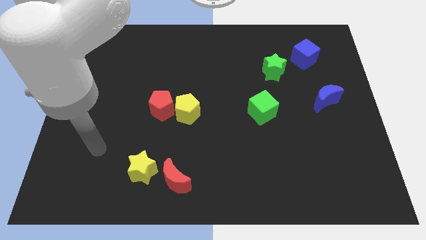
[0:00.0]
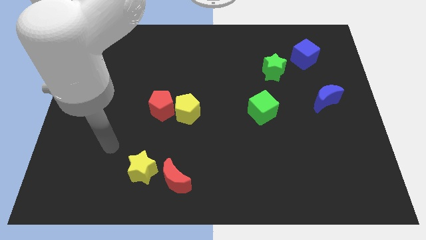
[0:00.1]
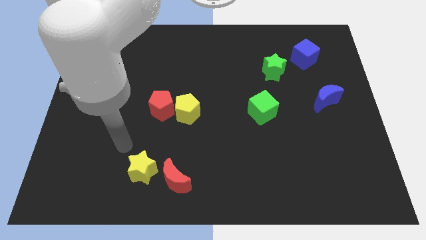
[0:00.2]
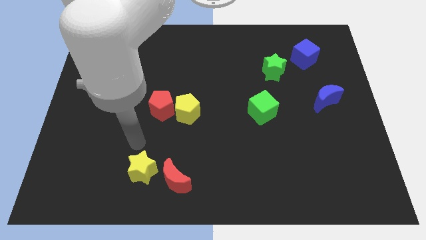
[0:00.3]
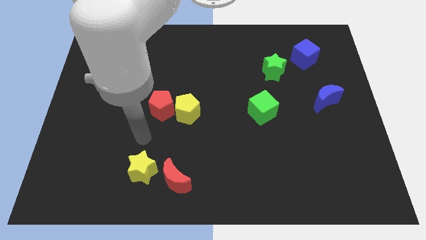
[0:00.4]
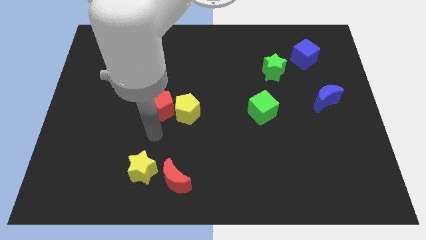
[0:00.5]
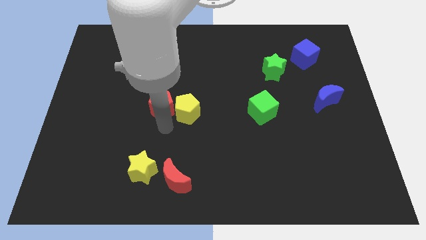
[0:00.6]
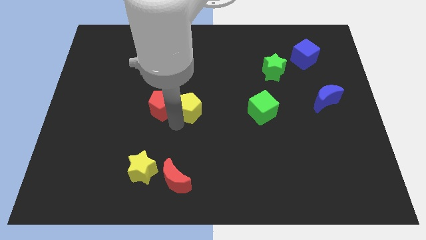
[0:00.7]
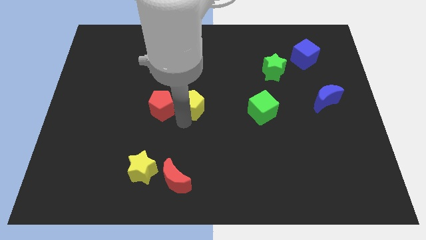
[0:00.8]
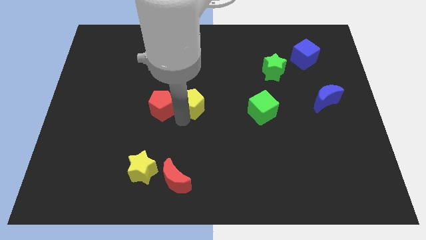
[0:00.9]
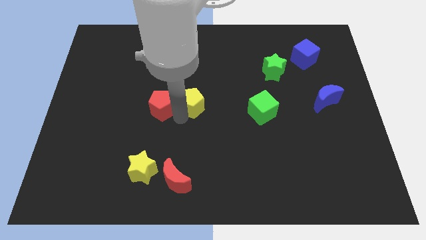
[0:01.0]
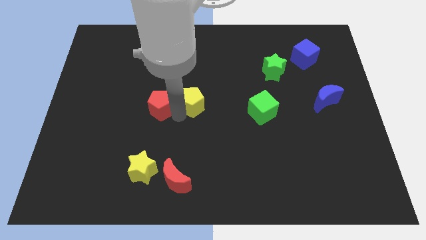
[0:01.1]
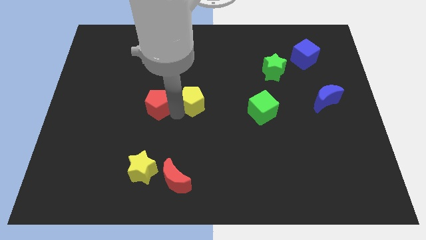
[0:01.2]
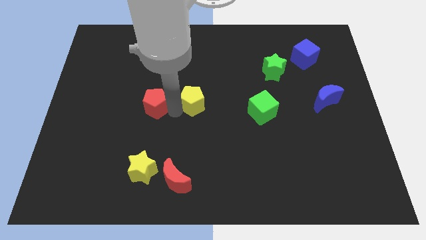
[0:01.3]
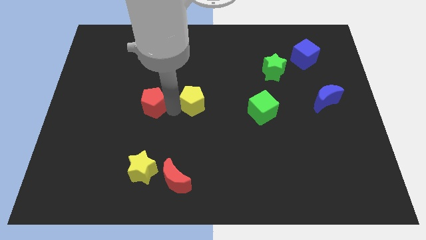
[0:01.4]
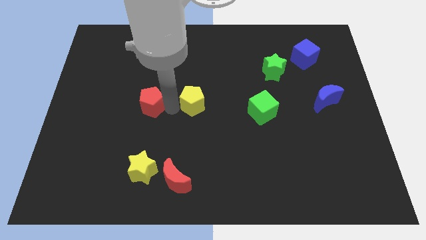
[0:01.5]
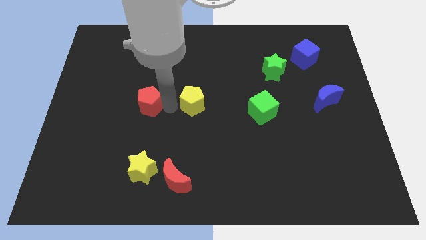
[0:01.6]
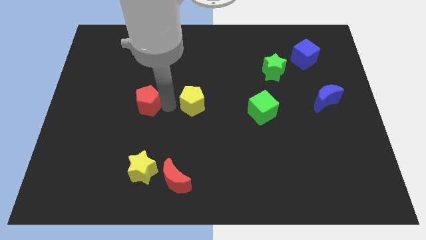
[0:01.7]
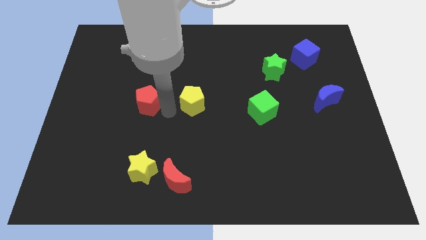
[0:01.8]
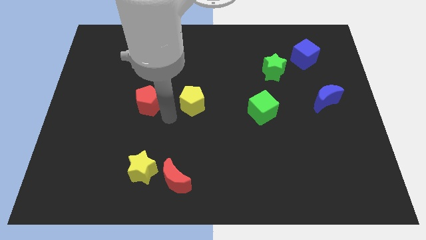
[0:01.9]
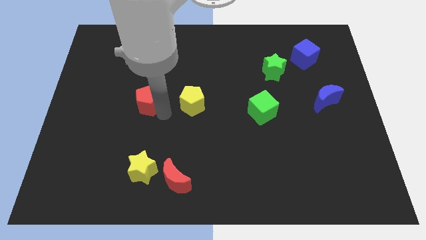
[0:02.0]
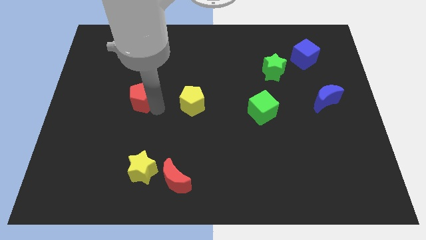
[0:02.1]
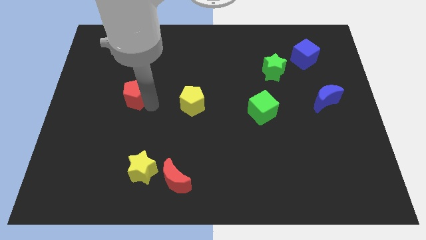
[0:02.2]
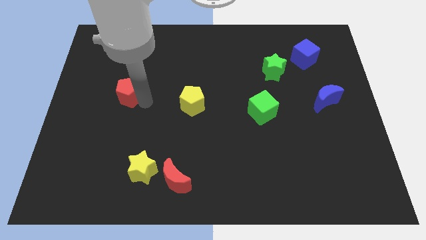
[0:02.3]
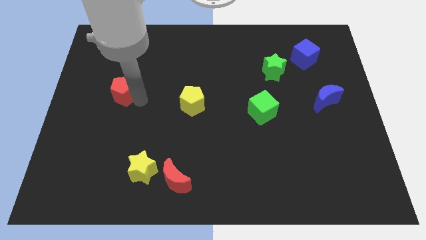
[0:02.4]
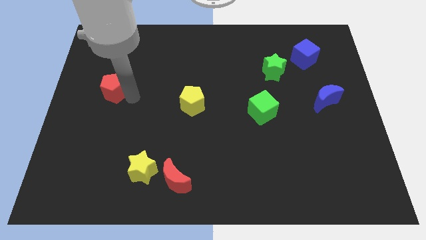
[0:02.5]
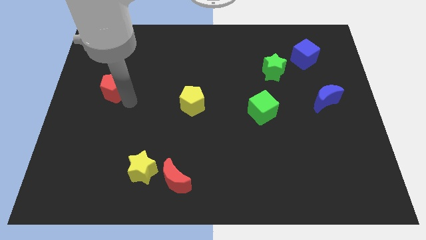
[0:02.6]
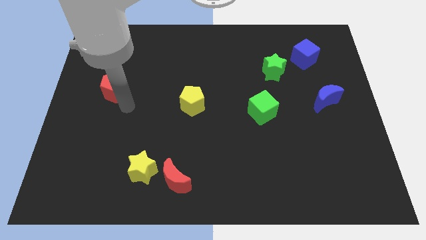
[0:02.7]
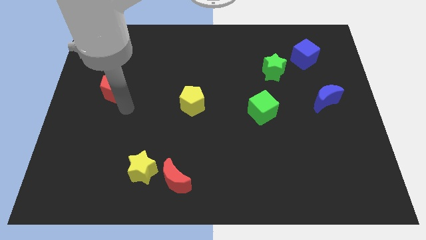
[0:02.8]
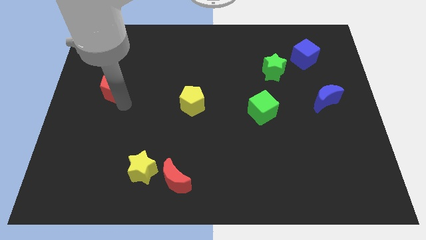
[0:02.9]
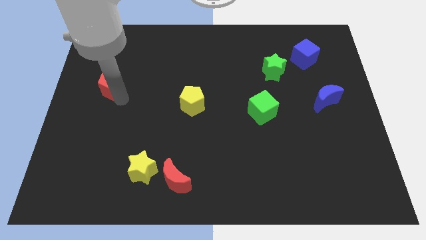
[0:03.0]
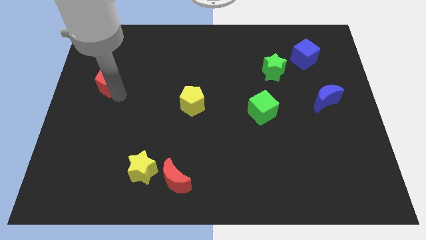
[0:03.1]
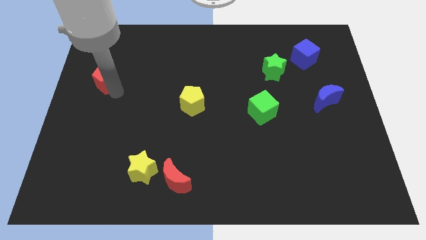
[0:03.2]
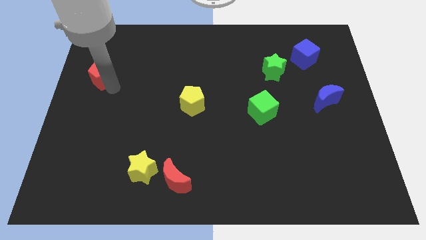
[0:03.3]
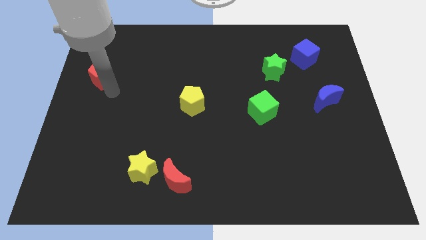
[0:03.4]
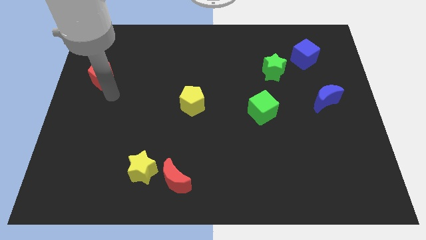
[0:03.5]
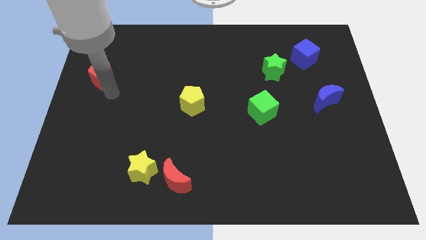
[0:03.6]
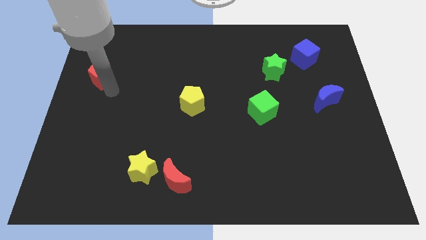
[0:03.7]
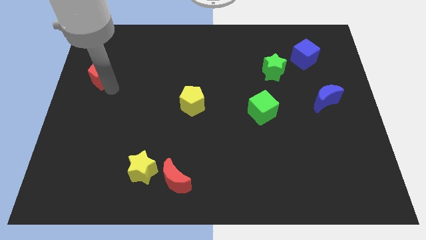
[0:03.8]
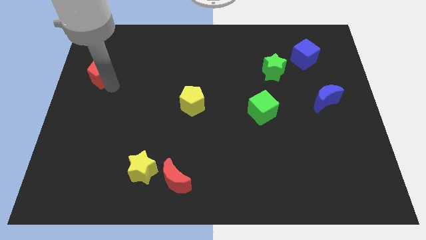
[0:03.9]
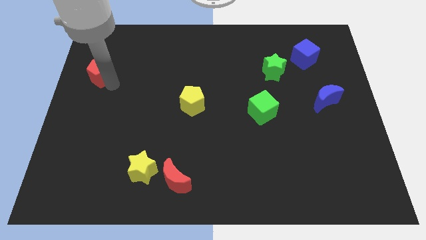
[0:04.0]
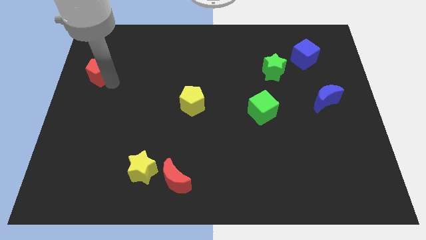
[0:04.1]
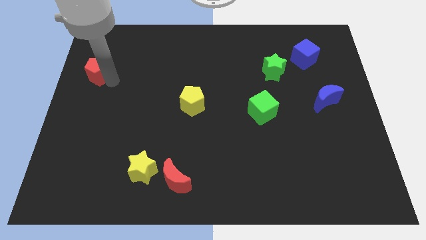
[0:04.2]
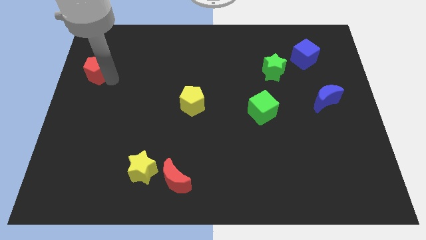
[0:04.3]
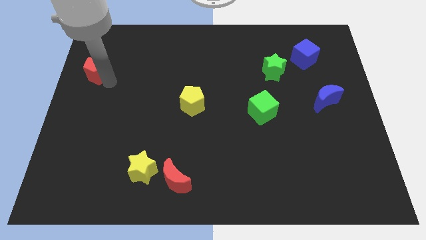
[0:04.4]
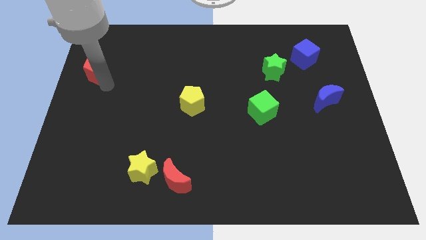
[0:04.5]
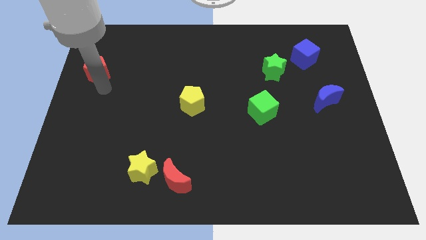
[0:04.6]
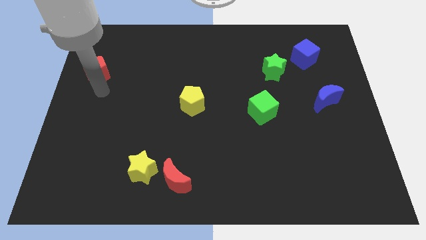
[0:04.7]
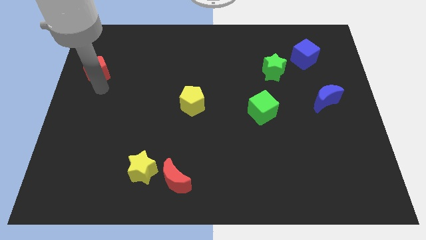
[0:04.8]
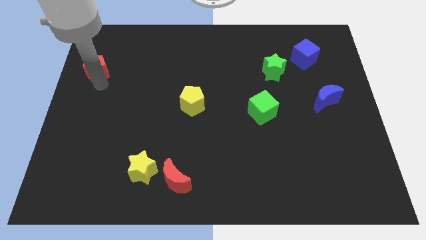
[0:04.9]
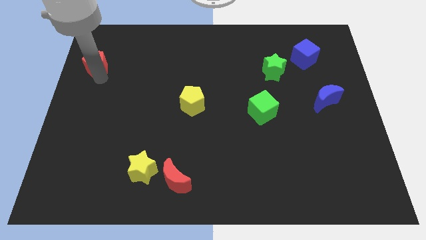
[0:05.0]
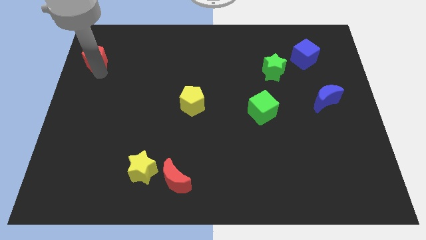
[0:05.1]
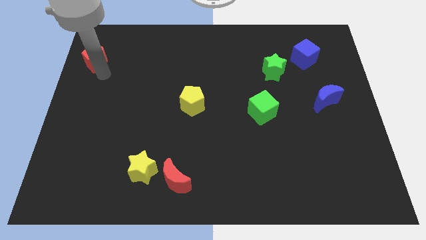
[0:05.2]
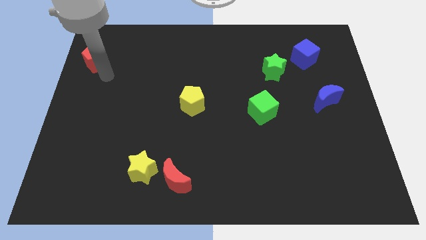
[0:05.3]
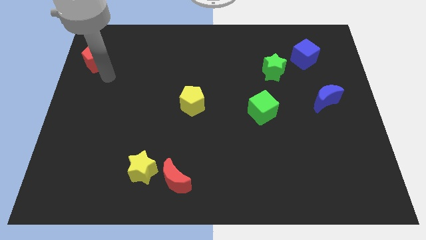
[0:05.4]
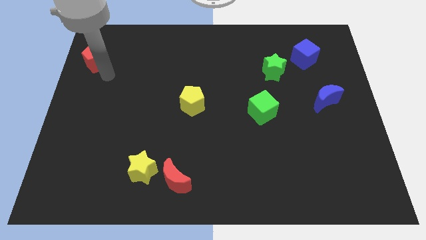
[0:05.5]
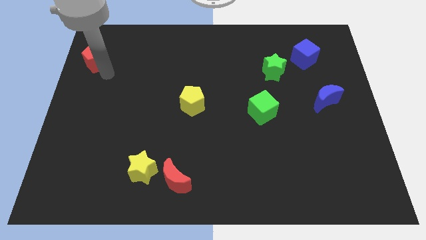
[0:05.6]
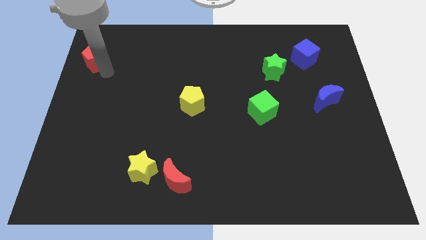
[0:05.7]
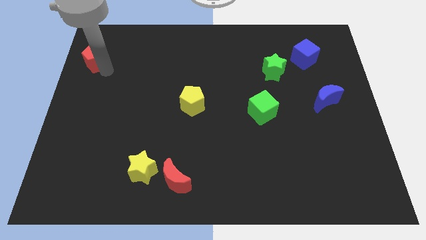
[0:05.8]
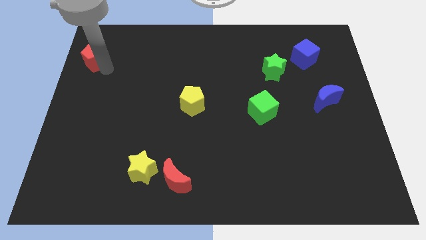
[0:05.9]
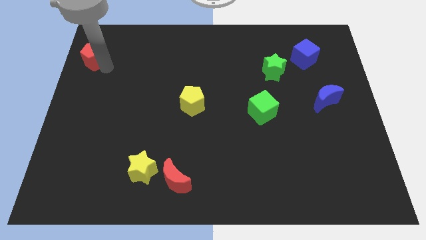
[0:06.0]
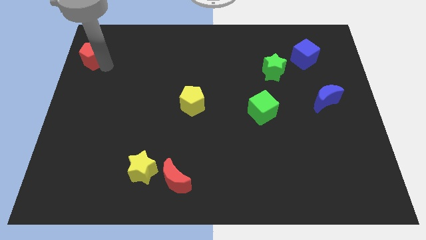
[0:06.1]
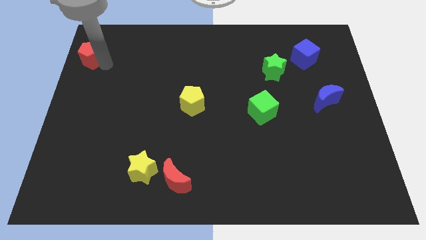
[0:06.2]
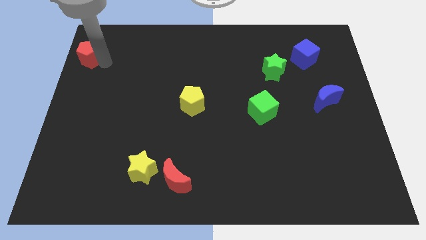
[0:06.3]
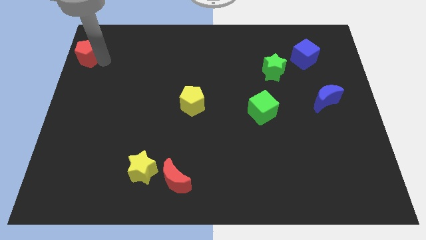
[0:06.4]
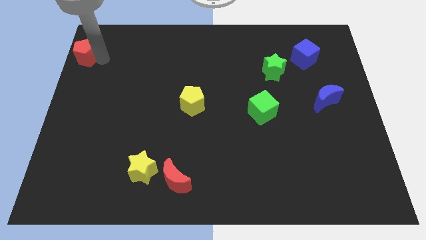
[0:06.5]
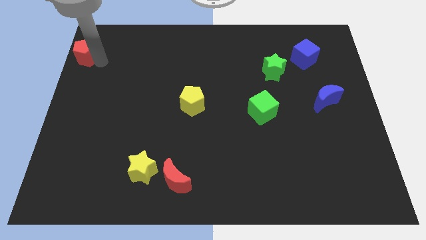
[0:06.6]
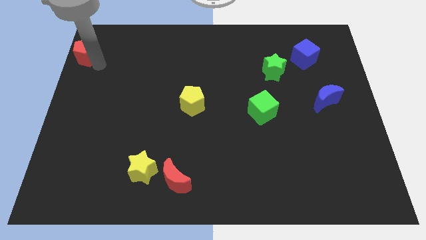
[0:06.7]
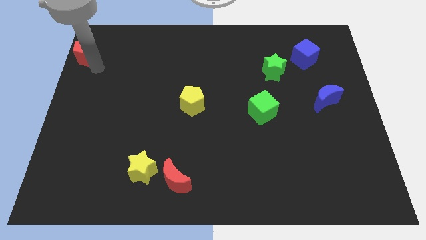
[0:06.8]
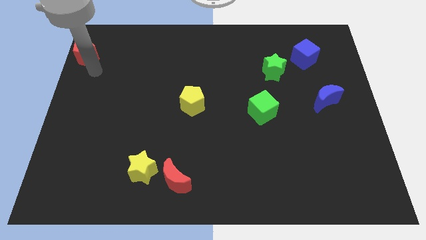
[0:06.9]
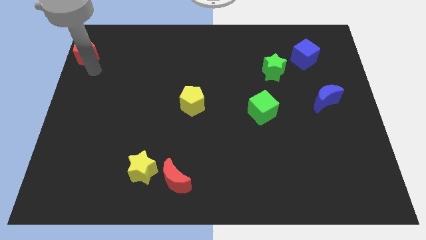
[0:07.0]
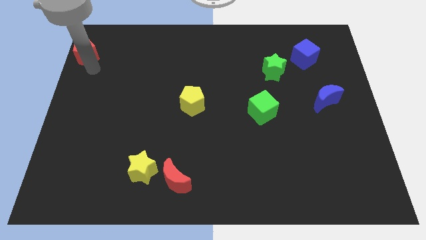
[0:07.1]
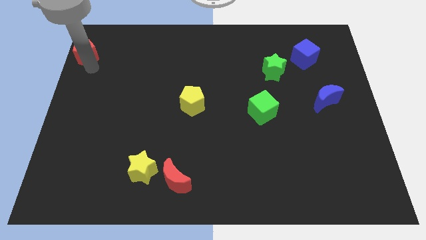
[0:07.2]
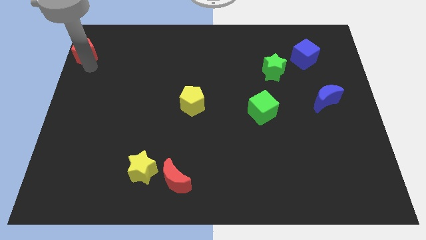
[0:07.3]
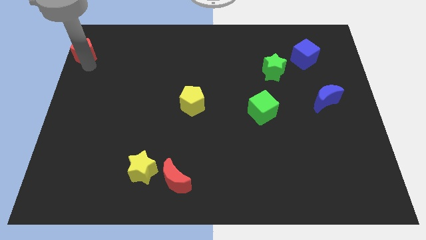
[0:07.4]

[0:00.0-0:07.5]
move the red pentagon to the top left of the board
